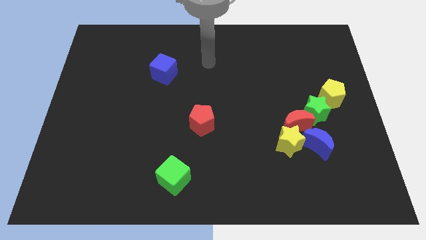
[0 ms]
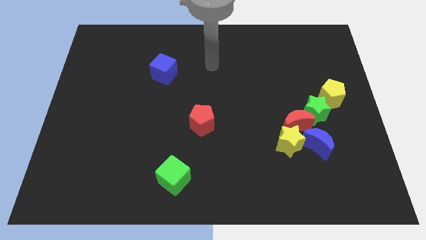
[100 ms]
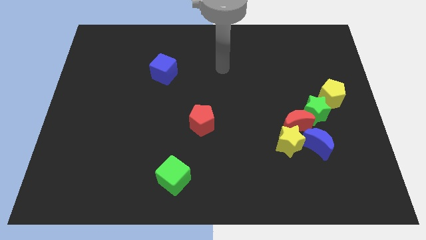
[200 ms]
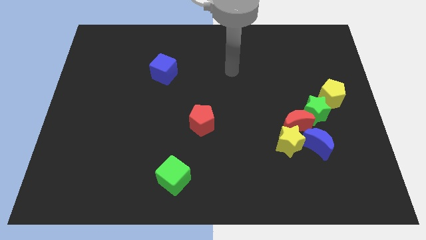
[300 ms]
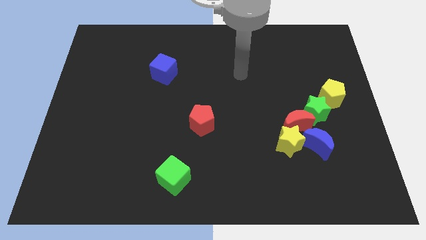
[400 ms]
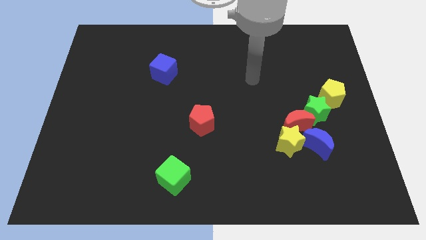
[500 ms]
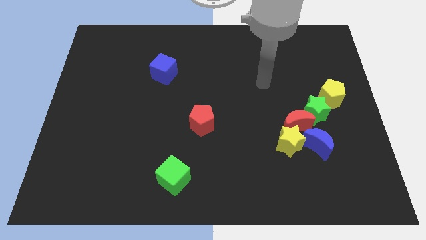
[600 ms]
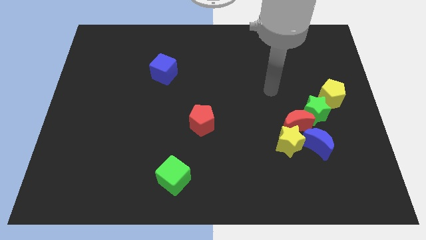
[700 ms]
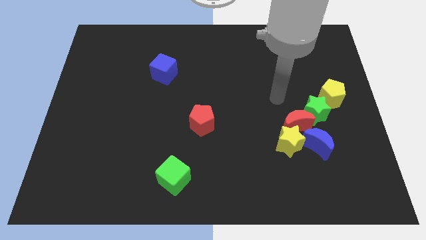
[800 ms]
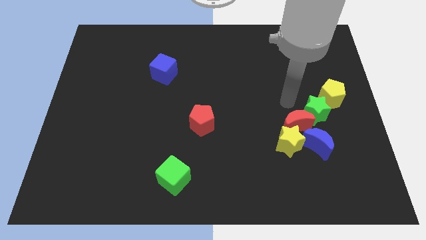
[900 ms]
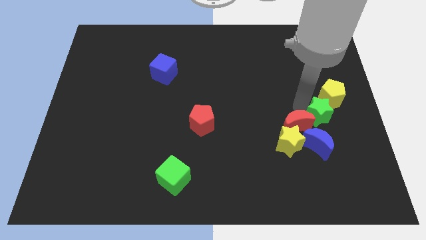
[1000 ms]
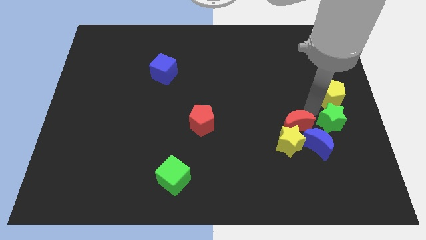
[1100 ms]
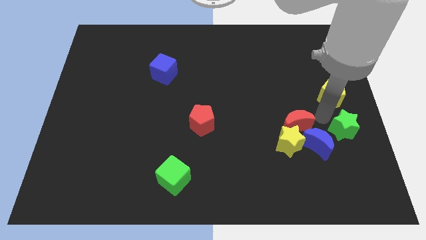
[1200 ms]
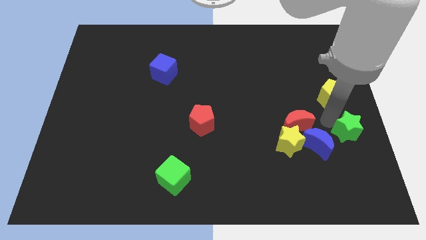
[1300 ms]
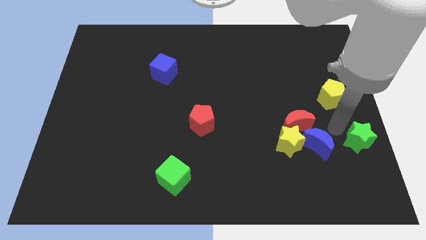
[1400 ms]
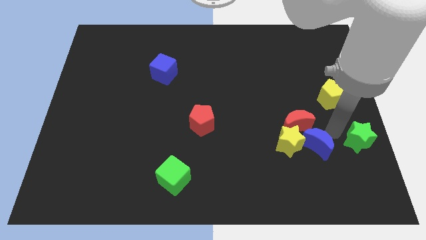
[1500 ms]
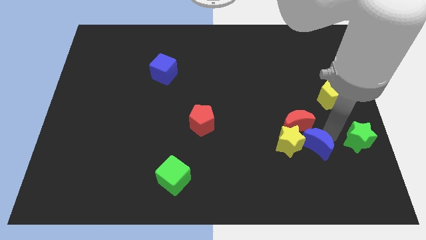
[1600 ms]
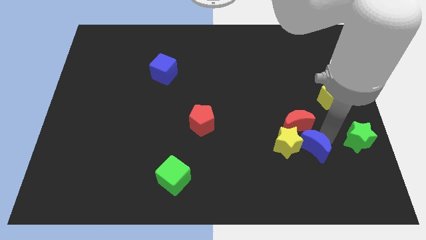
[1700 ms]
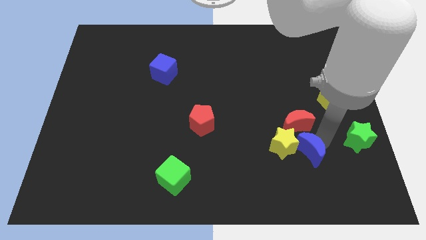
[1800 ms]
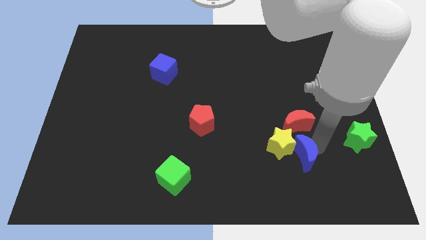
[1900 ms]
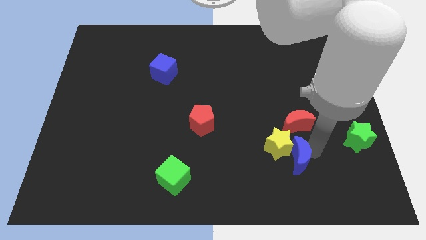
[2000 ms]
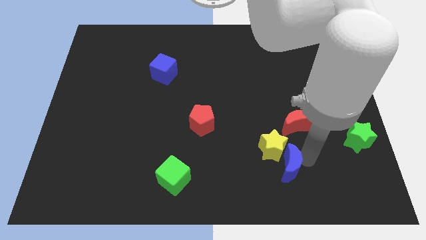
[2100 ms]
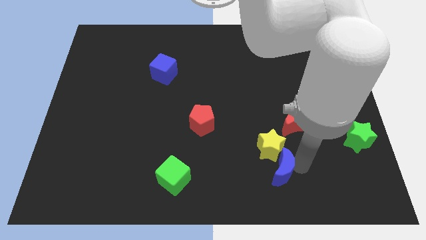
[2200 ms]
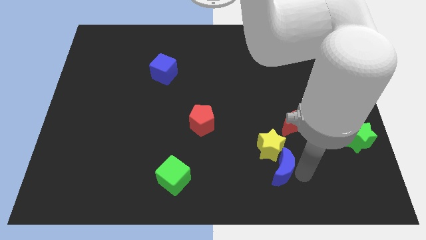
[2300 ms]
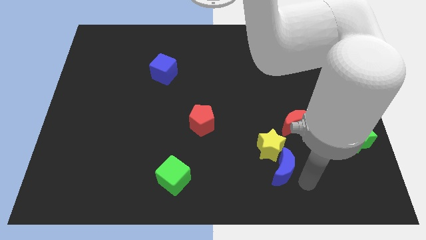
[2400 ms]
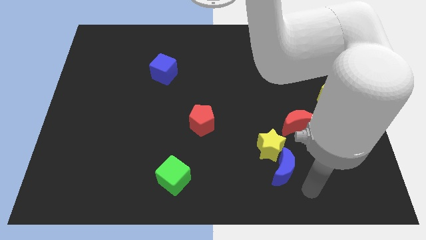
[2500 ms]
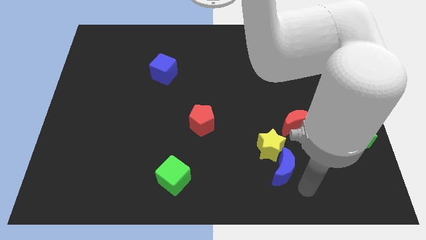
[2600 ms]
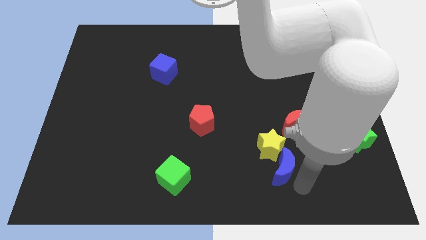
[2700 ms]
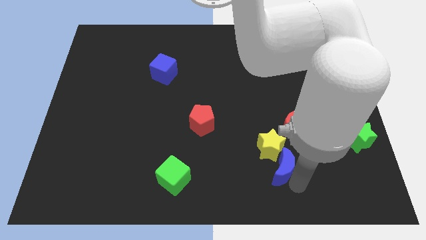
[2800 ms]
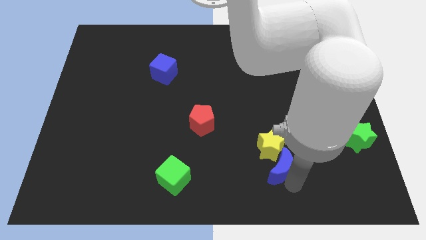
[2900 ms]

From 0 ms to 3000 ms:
slightly move the blue moon to the left

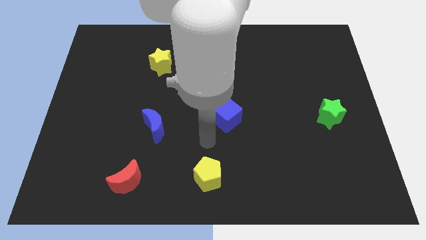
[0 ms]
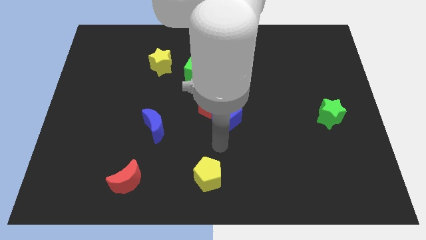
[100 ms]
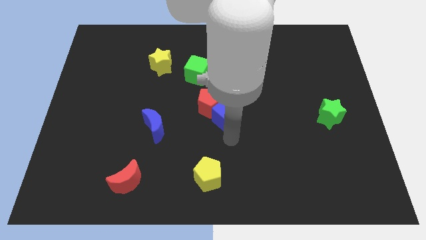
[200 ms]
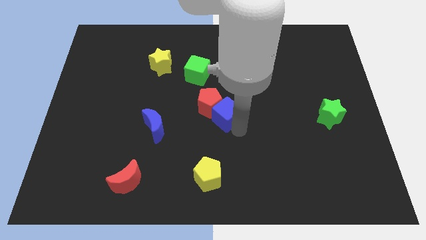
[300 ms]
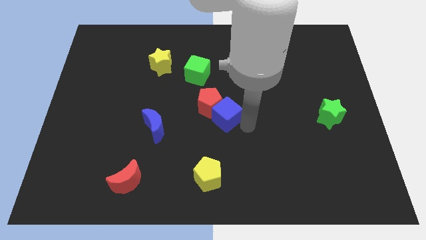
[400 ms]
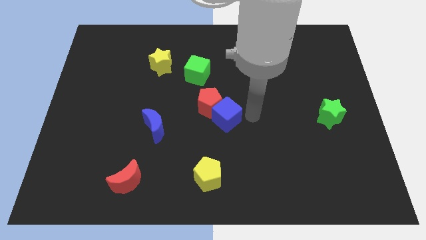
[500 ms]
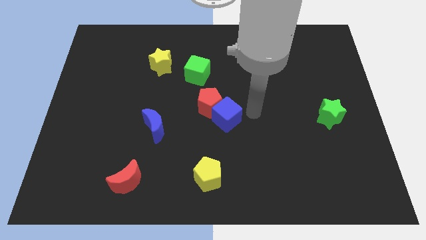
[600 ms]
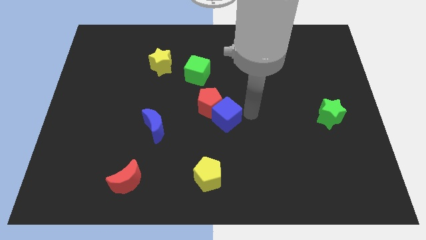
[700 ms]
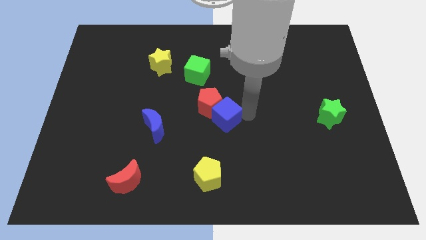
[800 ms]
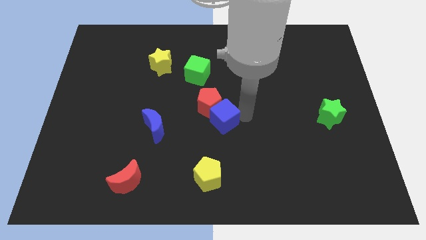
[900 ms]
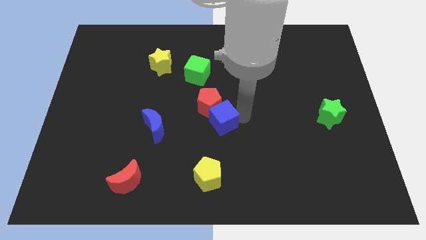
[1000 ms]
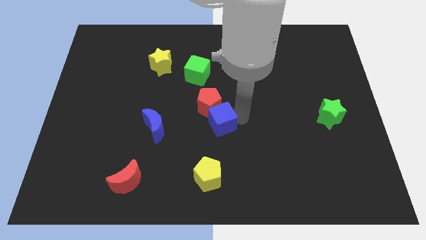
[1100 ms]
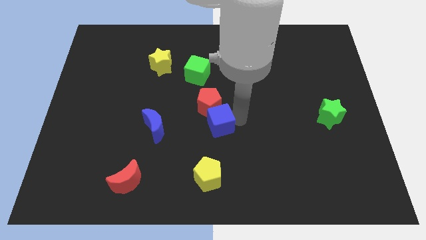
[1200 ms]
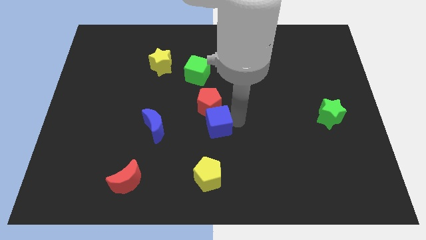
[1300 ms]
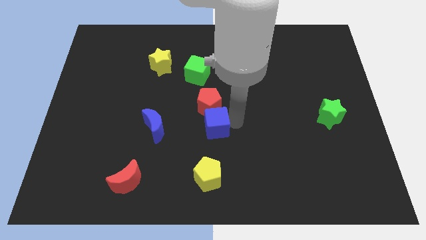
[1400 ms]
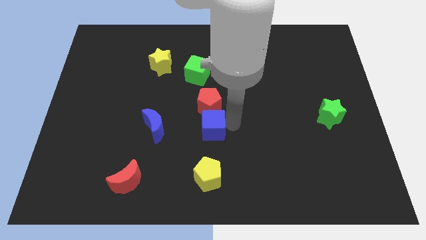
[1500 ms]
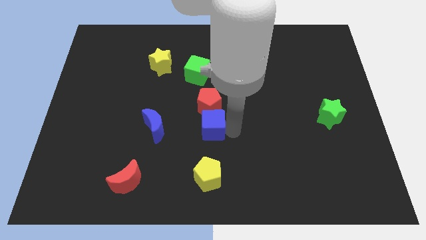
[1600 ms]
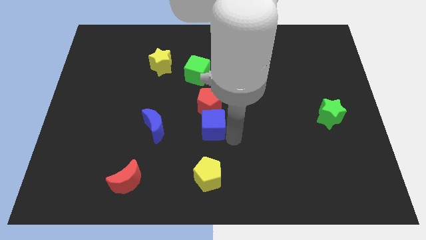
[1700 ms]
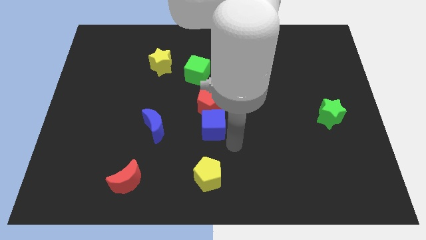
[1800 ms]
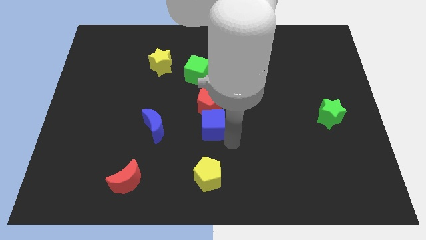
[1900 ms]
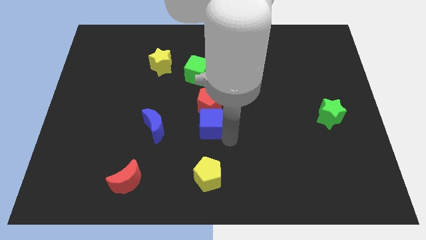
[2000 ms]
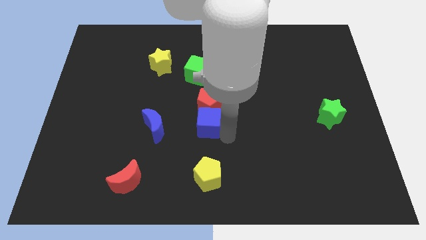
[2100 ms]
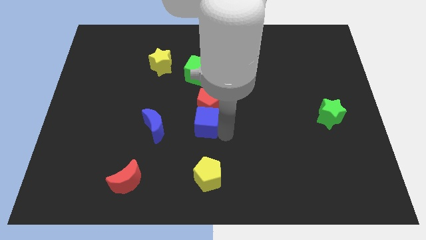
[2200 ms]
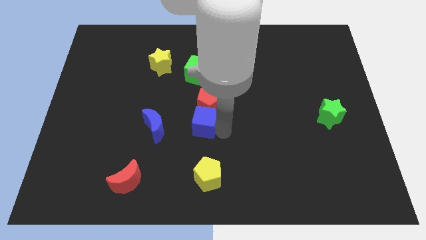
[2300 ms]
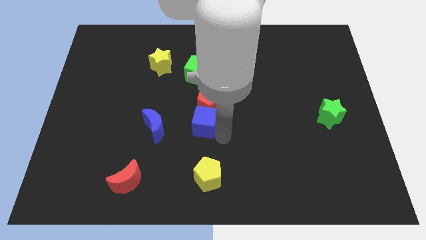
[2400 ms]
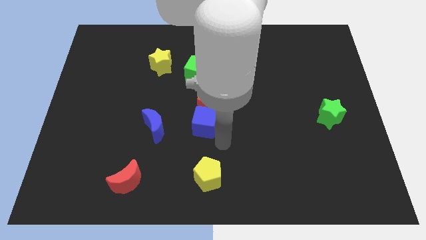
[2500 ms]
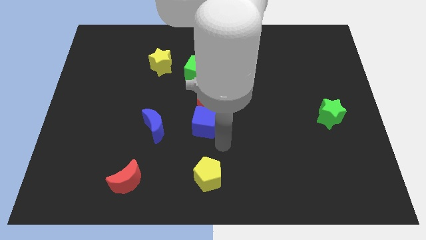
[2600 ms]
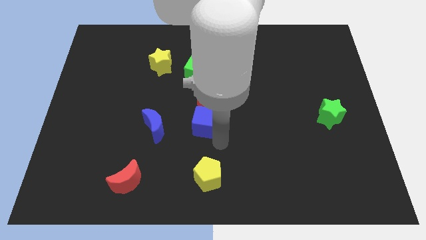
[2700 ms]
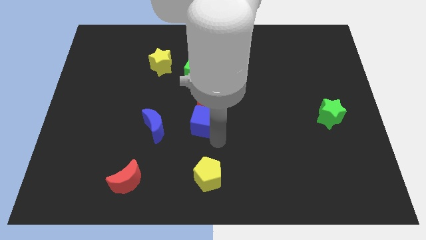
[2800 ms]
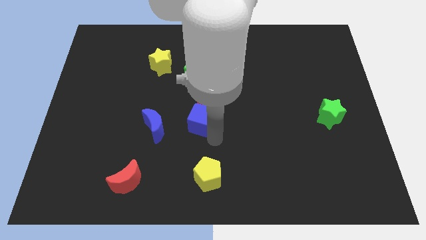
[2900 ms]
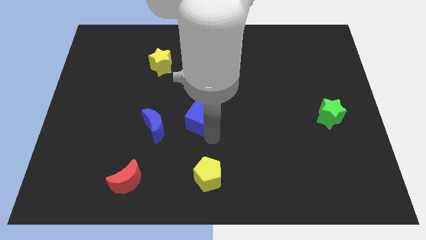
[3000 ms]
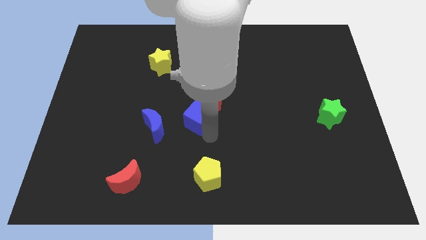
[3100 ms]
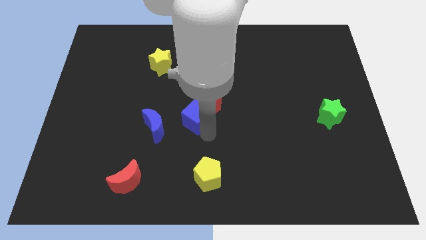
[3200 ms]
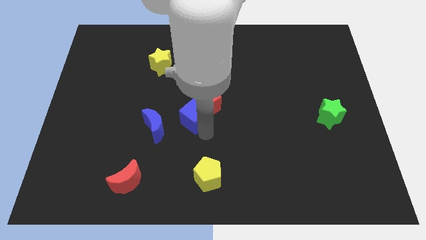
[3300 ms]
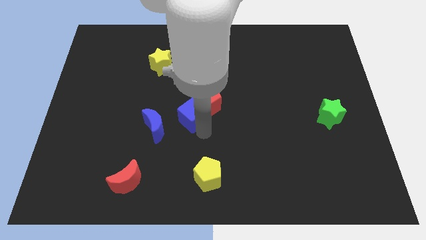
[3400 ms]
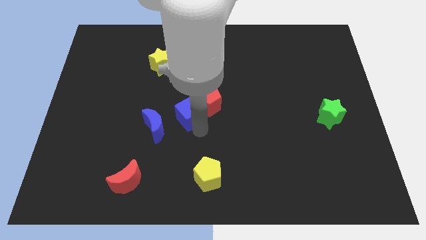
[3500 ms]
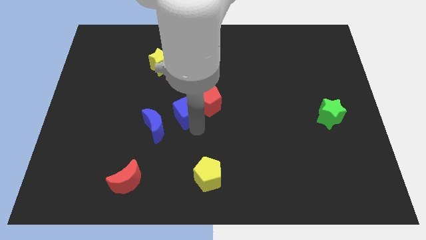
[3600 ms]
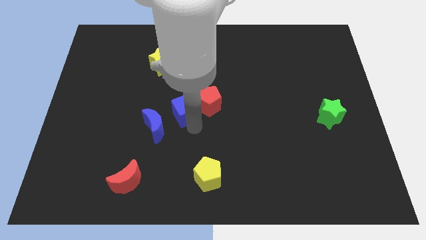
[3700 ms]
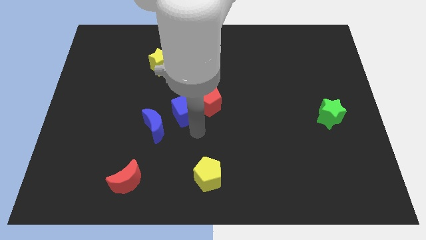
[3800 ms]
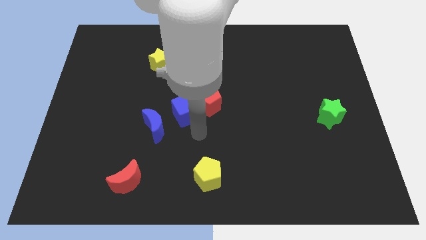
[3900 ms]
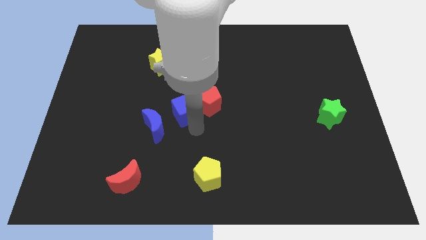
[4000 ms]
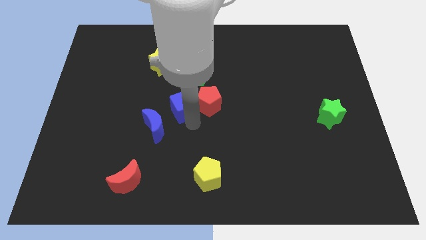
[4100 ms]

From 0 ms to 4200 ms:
slightly push the blue cube diagonally upwards and to the left

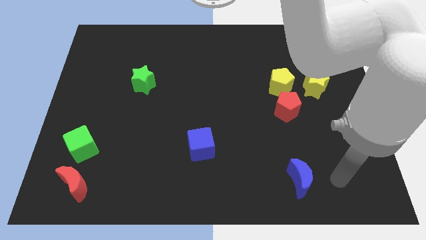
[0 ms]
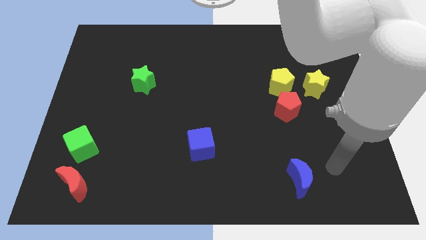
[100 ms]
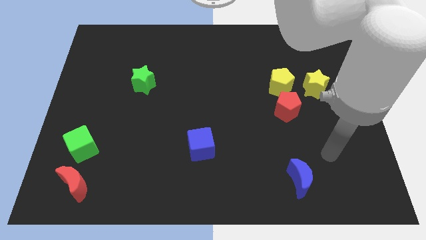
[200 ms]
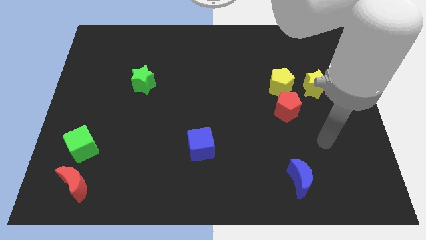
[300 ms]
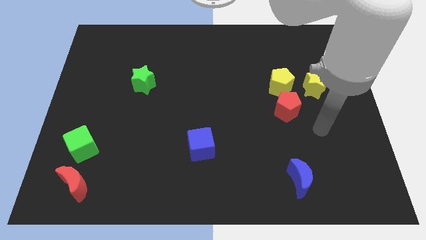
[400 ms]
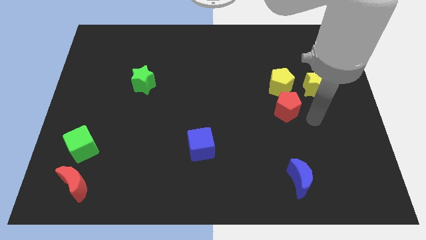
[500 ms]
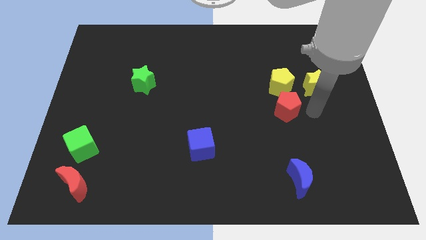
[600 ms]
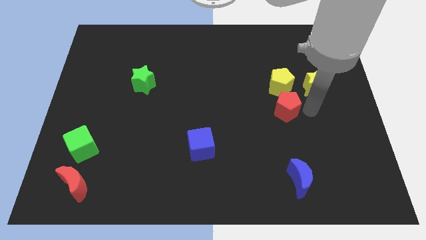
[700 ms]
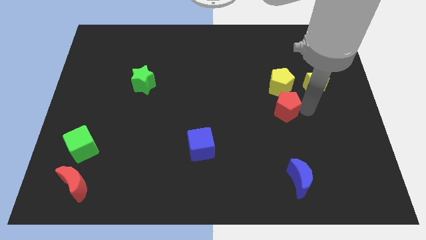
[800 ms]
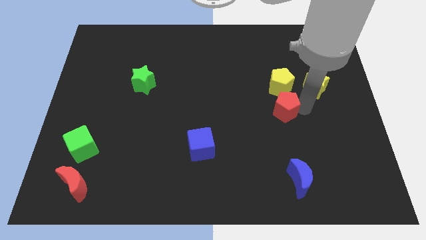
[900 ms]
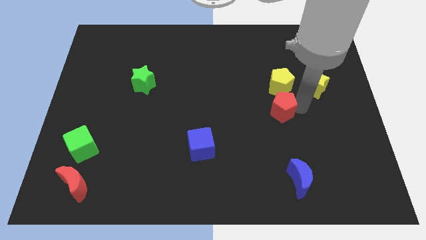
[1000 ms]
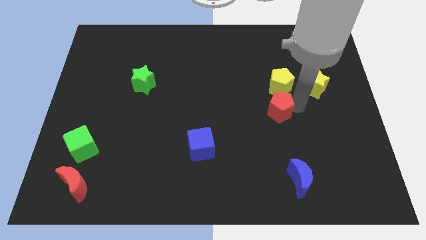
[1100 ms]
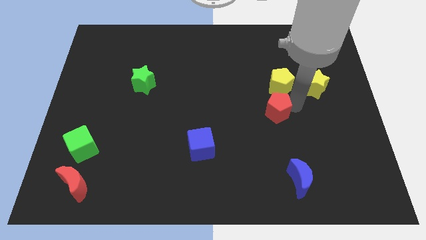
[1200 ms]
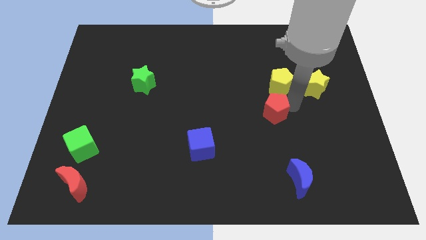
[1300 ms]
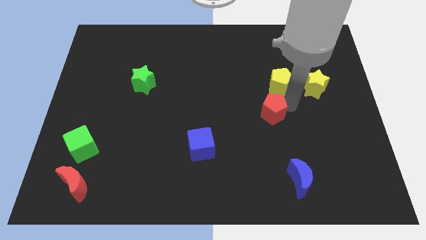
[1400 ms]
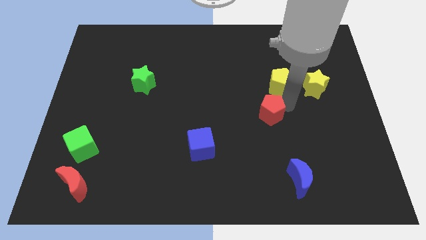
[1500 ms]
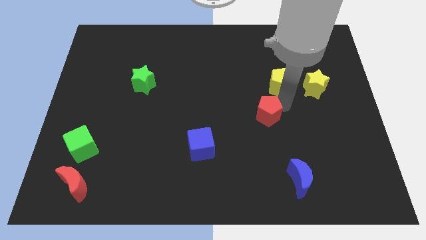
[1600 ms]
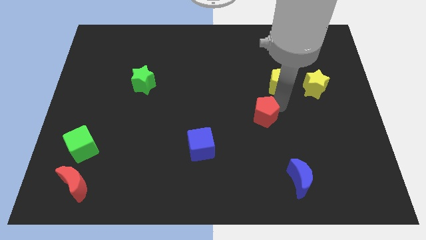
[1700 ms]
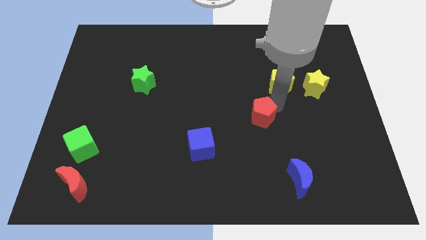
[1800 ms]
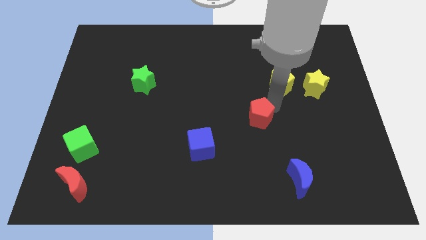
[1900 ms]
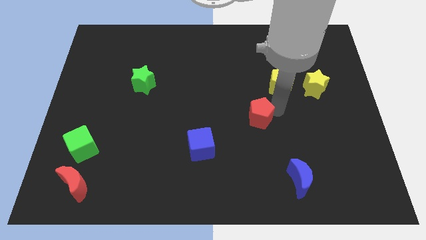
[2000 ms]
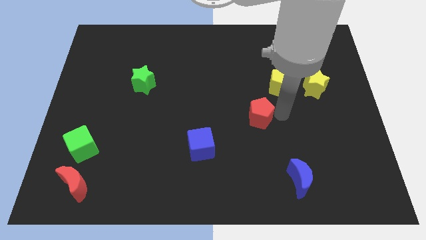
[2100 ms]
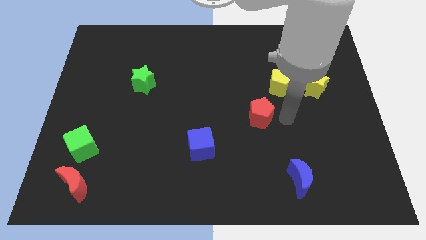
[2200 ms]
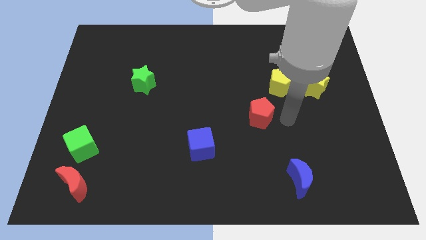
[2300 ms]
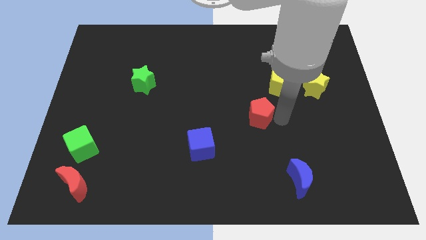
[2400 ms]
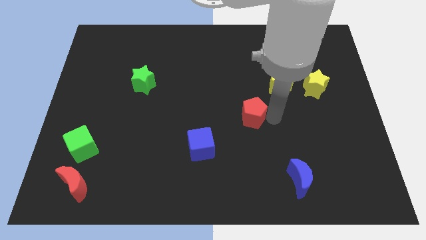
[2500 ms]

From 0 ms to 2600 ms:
move the red pentagon left somewhat
